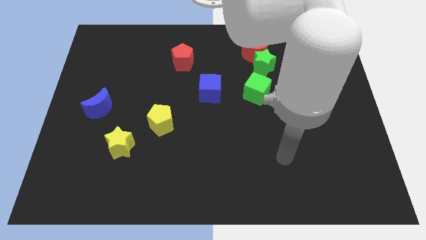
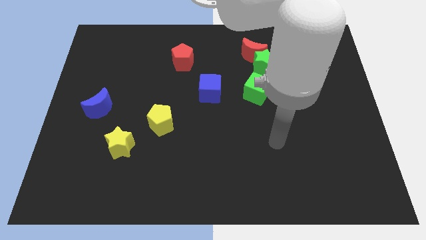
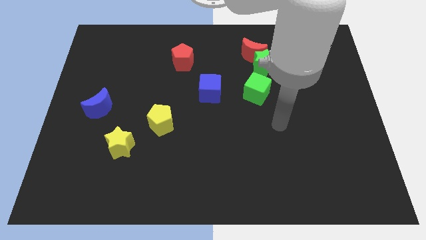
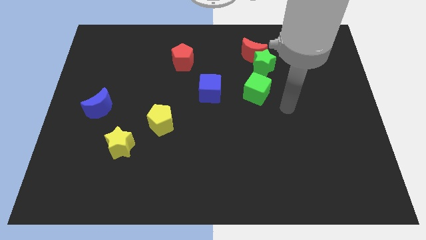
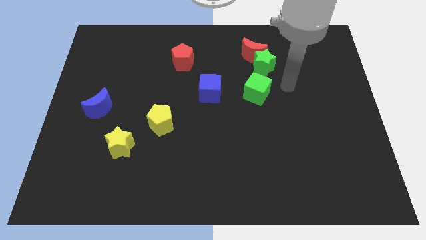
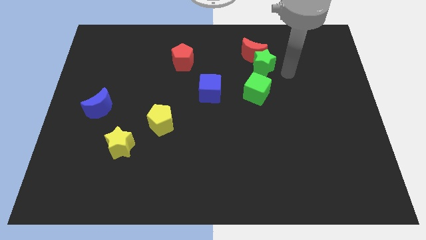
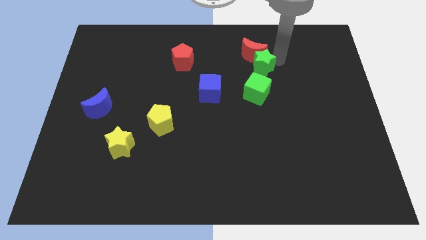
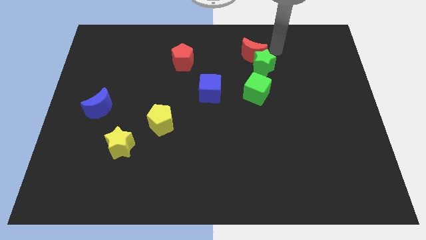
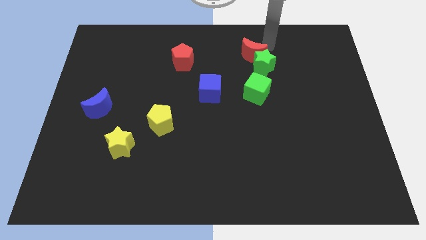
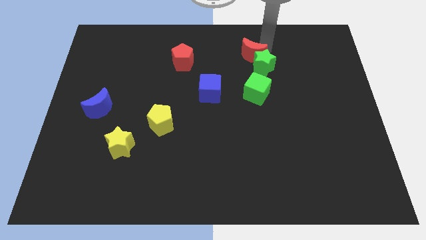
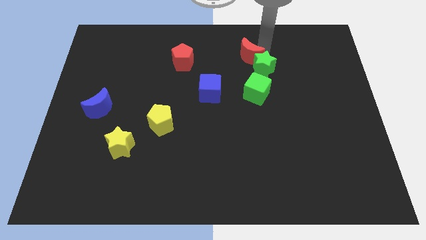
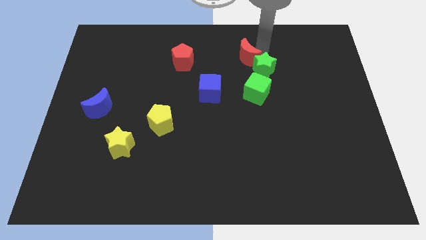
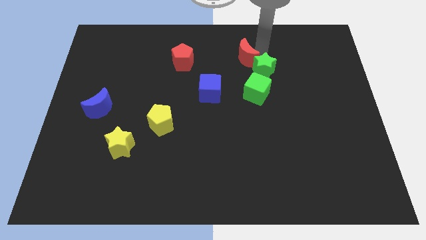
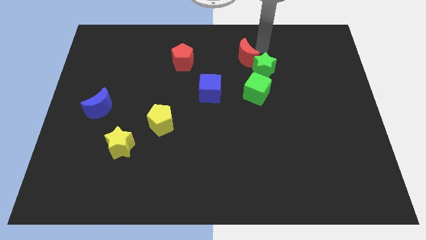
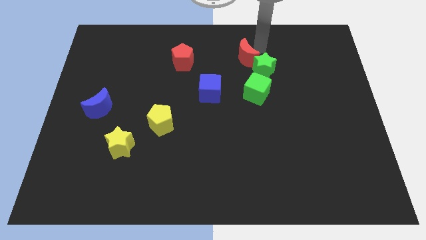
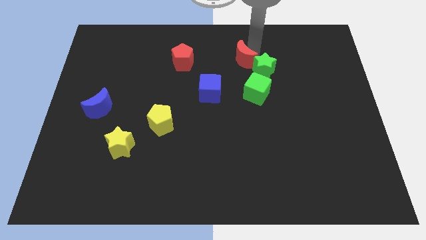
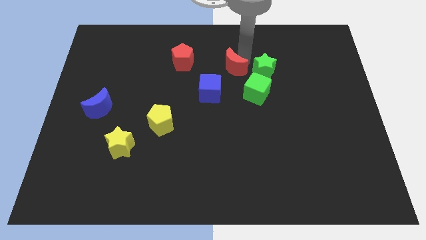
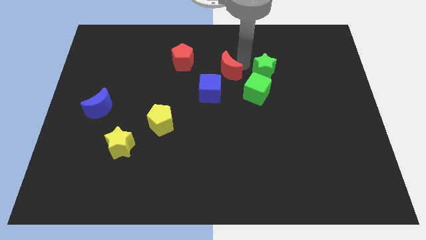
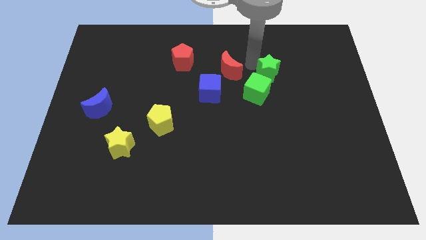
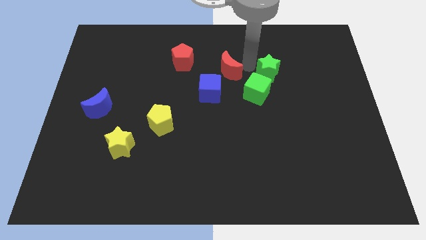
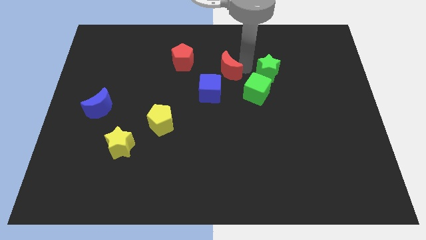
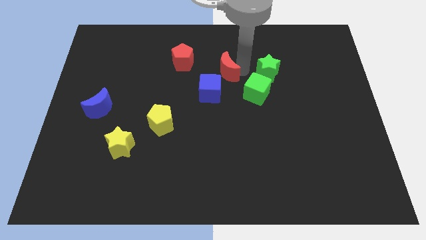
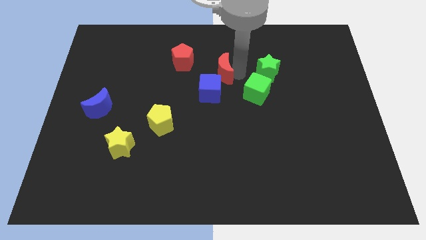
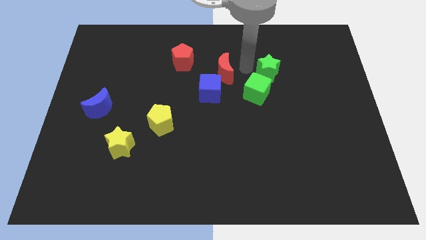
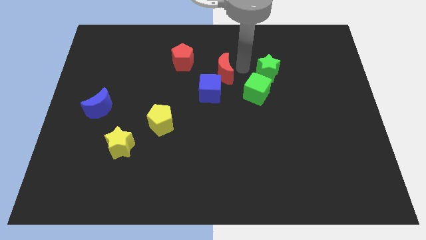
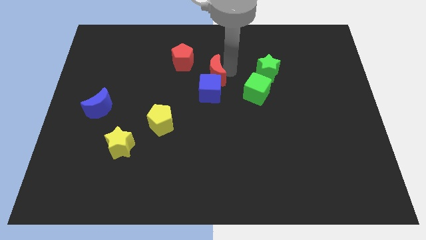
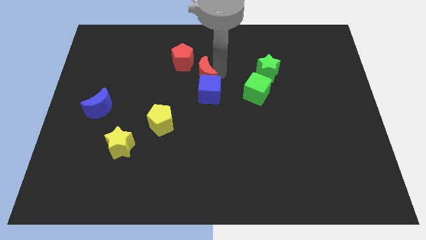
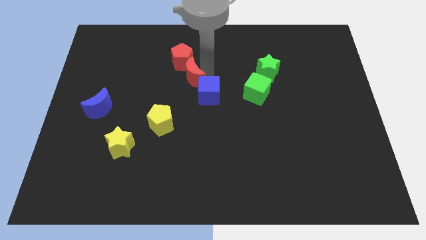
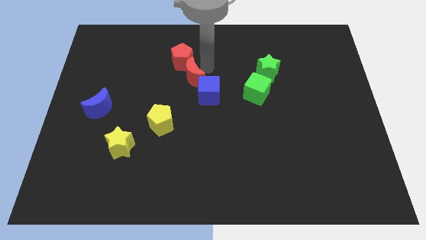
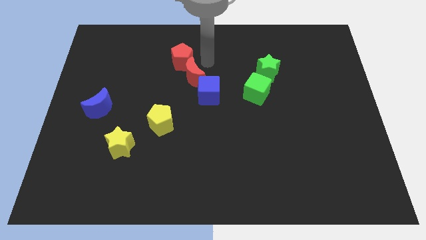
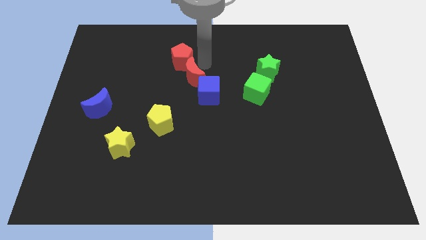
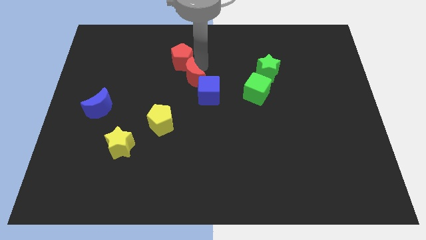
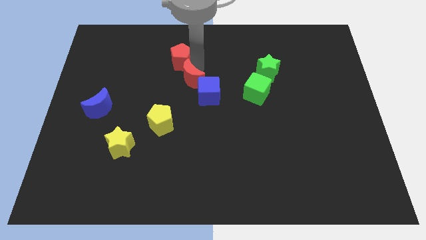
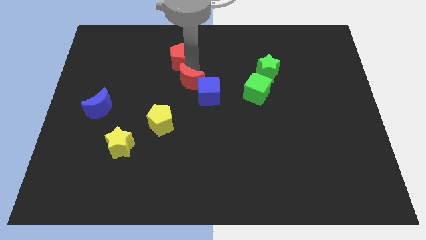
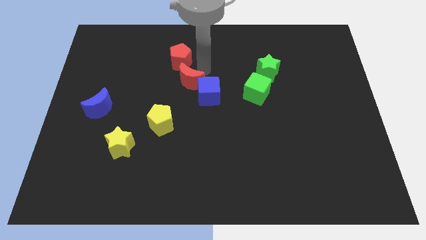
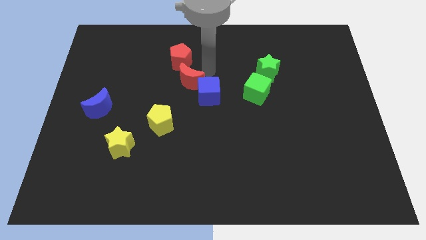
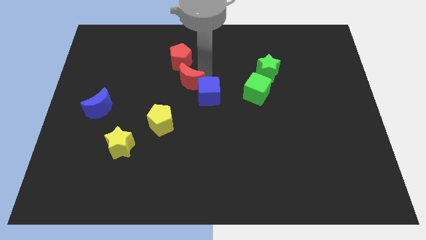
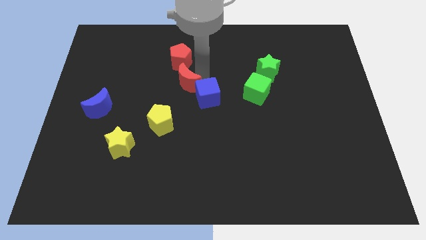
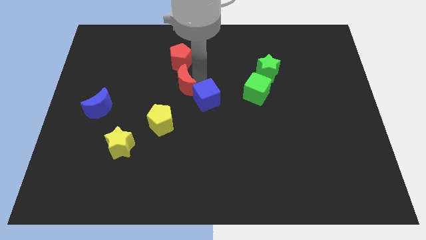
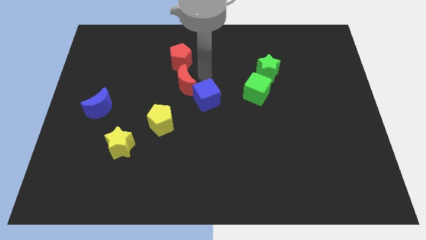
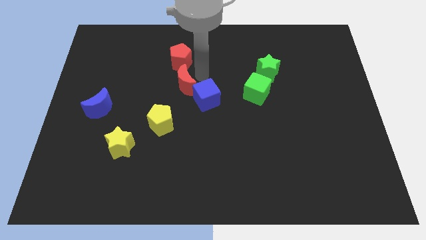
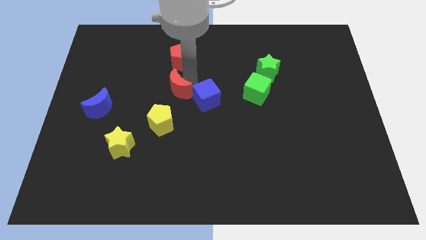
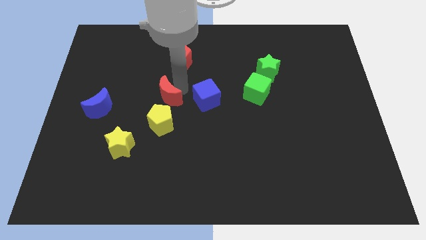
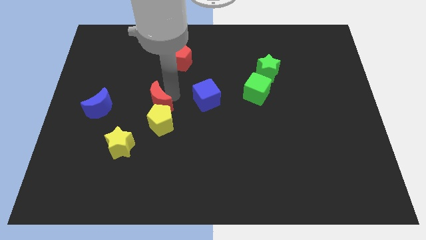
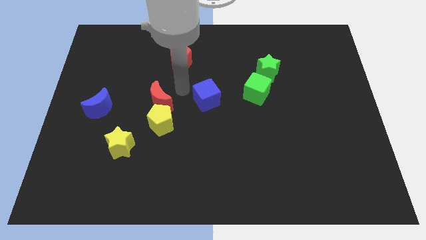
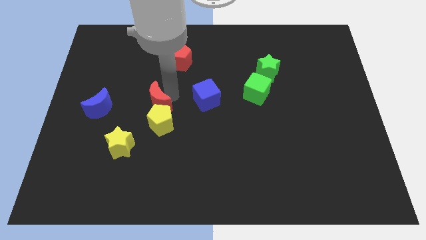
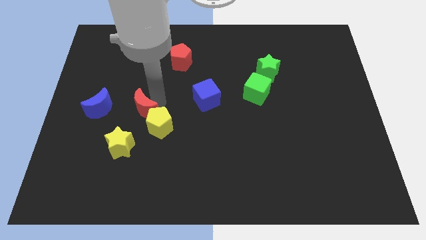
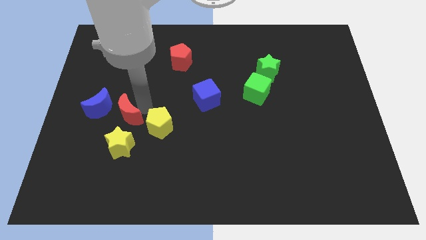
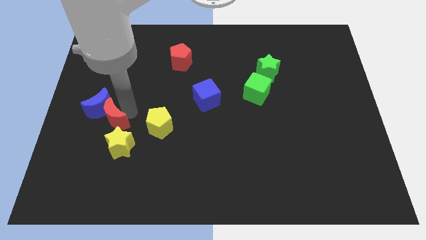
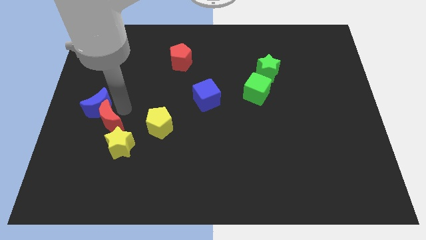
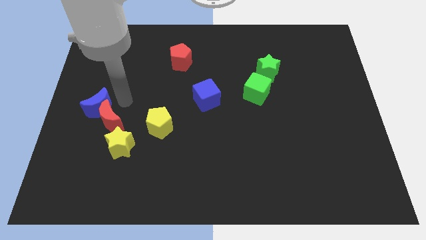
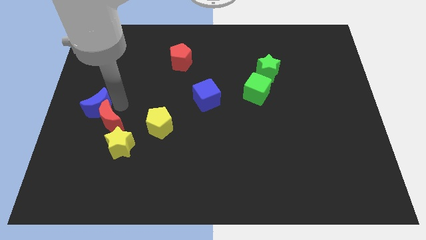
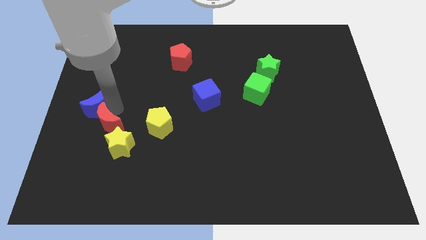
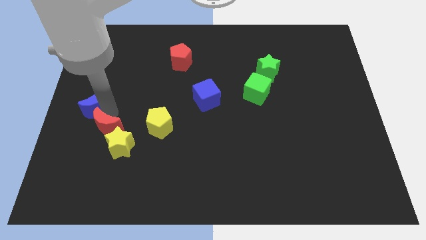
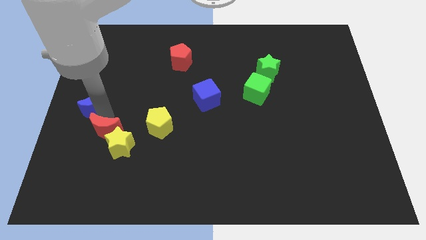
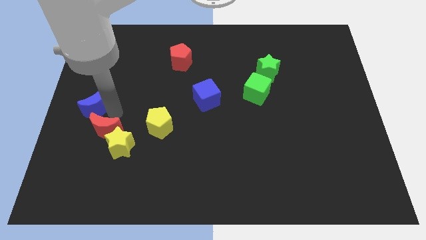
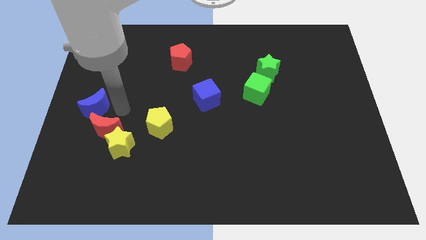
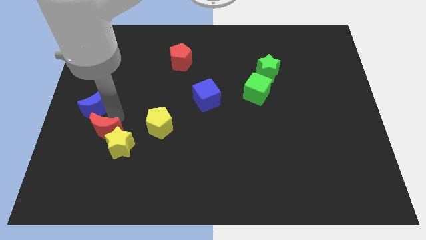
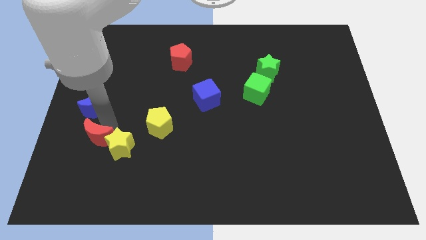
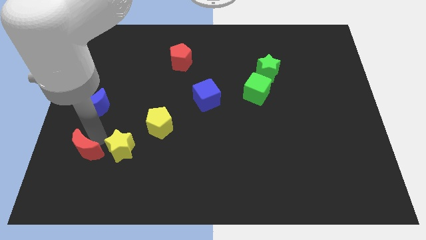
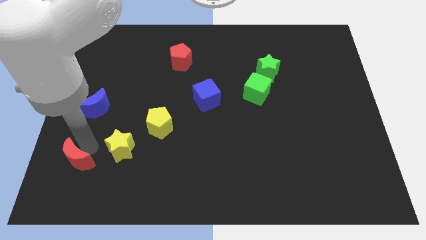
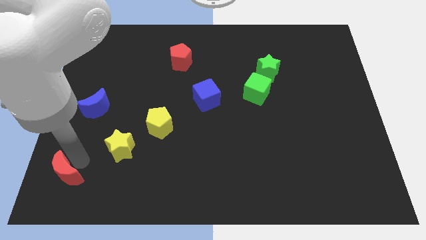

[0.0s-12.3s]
push the red moon to the bottom left corner
